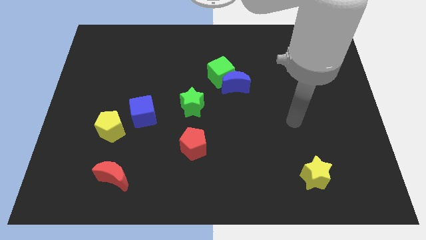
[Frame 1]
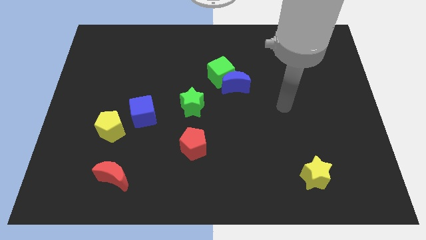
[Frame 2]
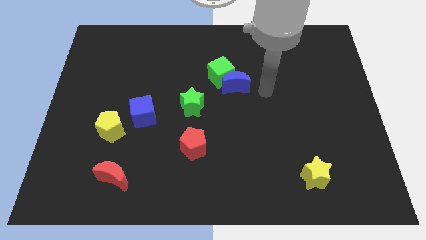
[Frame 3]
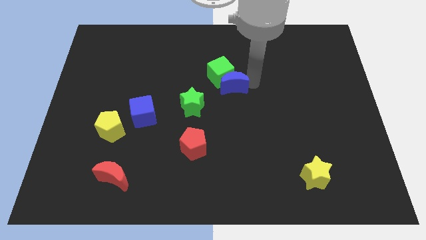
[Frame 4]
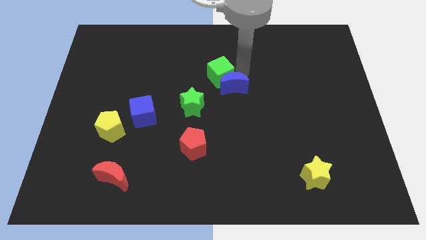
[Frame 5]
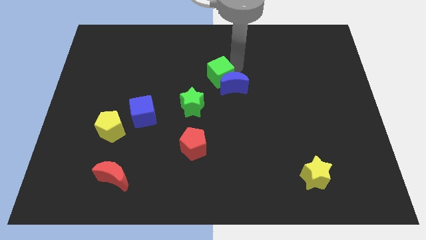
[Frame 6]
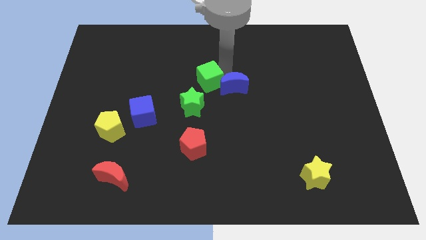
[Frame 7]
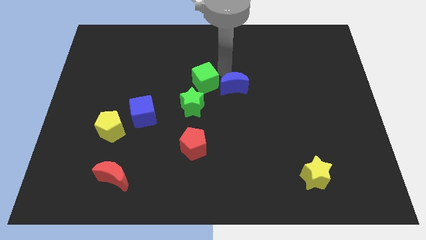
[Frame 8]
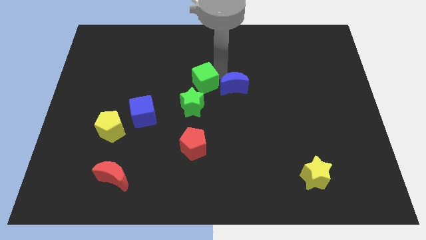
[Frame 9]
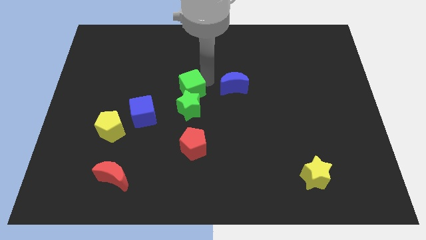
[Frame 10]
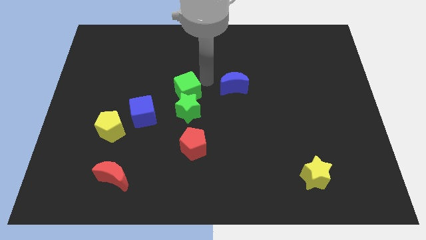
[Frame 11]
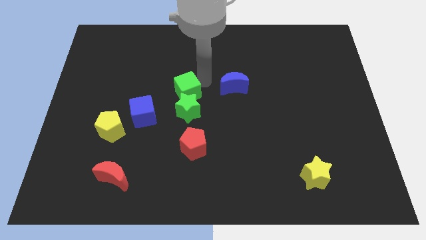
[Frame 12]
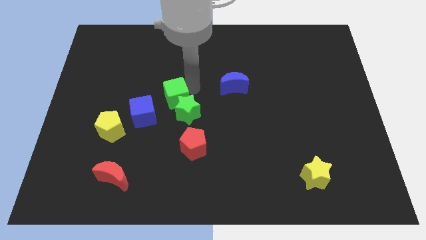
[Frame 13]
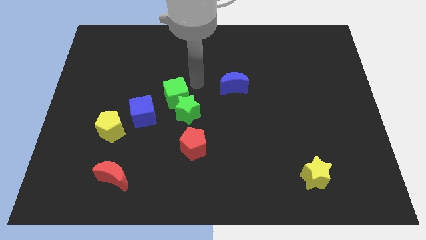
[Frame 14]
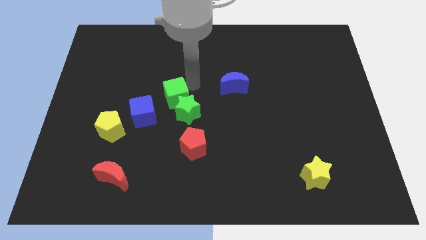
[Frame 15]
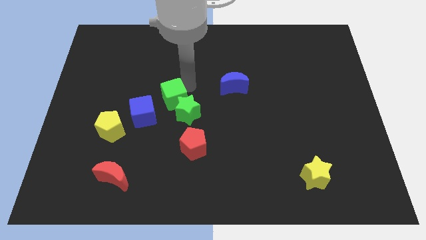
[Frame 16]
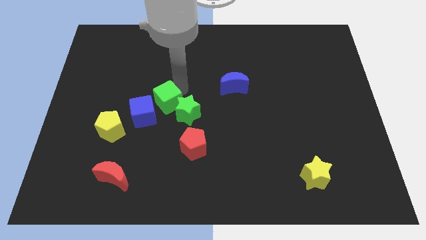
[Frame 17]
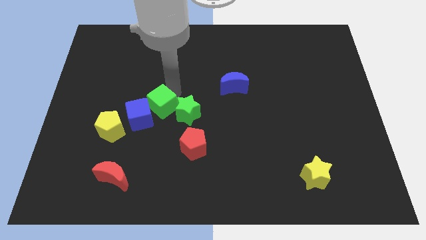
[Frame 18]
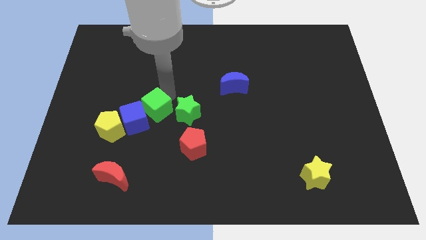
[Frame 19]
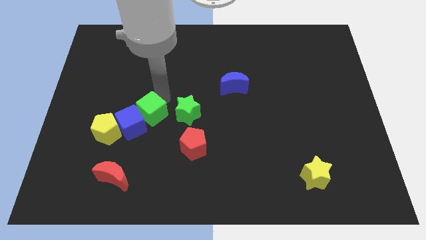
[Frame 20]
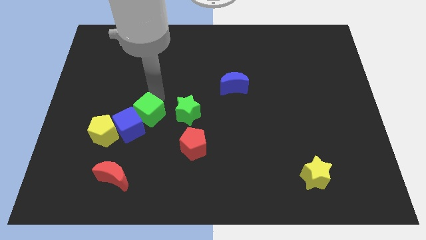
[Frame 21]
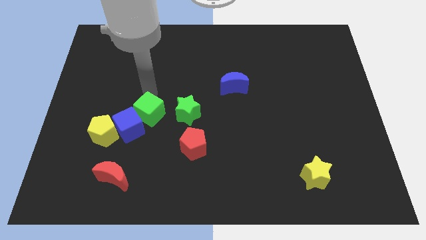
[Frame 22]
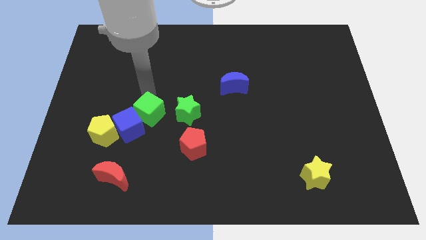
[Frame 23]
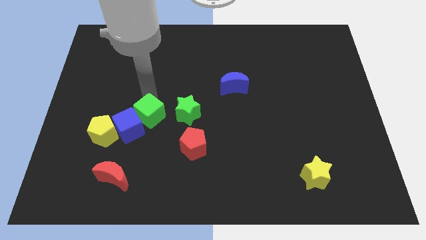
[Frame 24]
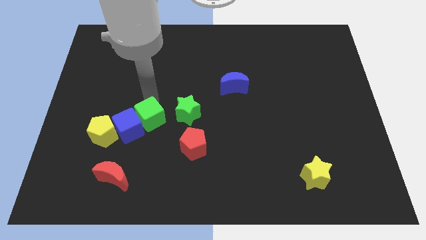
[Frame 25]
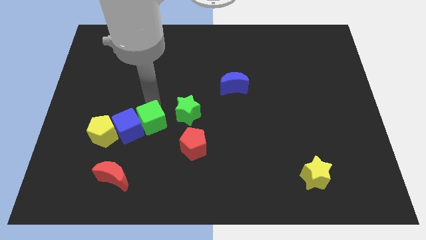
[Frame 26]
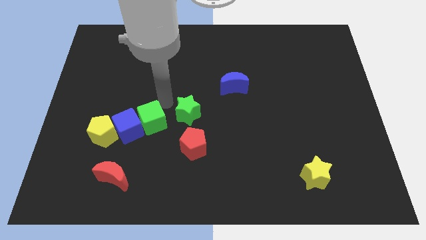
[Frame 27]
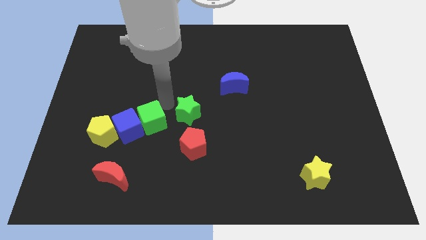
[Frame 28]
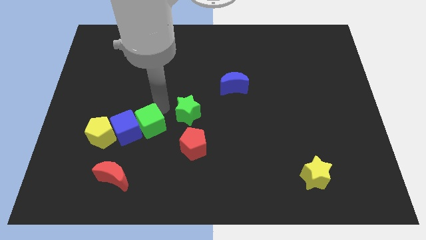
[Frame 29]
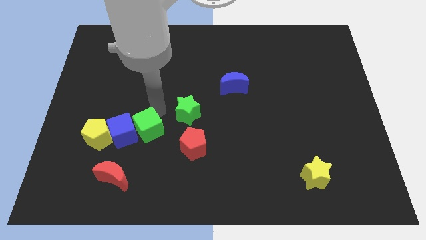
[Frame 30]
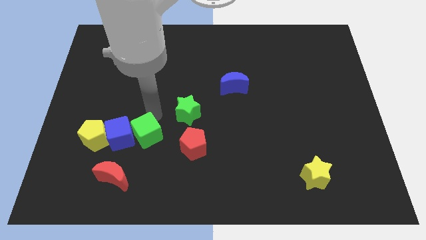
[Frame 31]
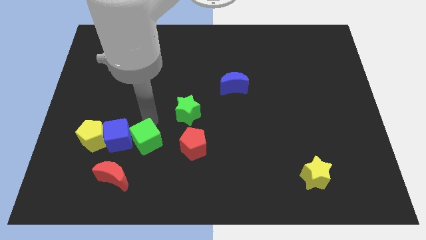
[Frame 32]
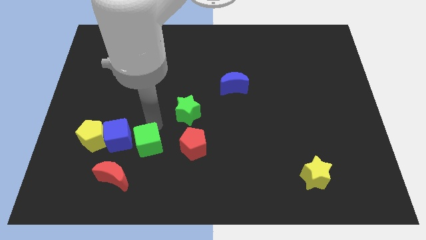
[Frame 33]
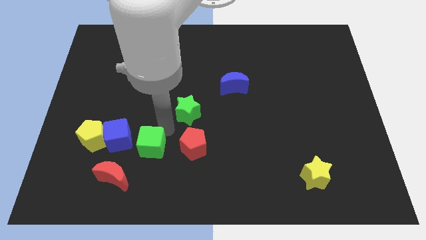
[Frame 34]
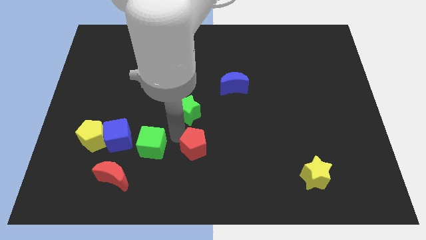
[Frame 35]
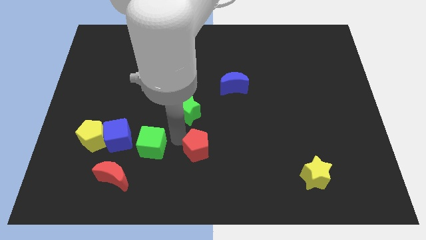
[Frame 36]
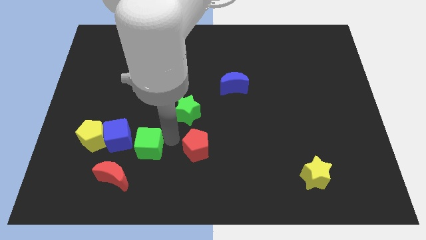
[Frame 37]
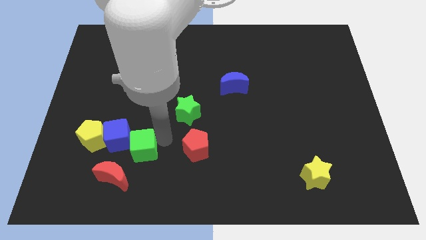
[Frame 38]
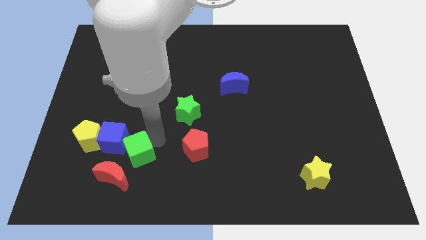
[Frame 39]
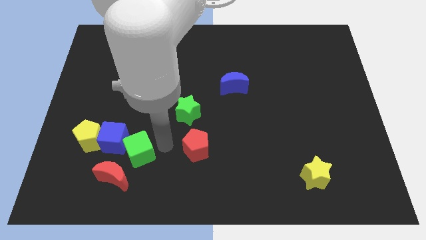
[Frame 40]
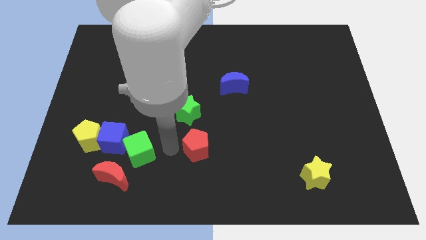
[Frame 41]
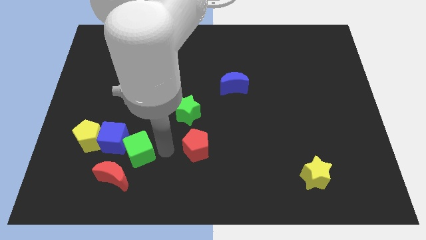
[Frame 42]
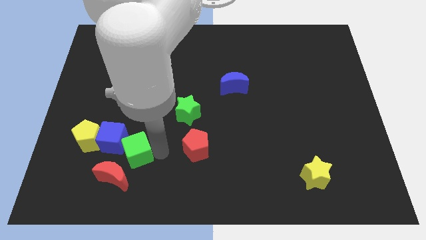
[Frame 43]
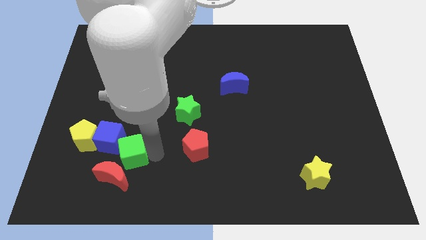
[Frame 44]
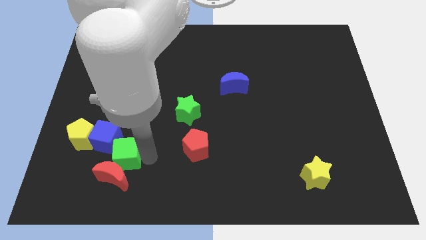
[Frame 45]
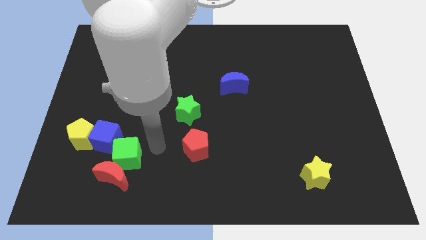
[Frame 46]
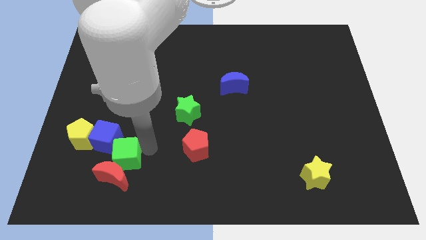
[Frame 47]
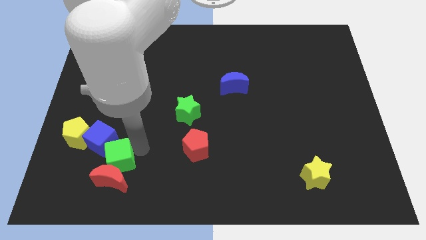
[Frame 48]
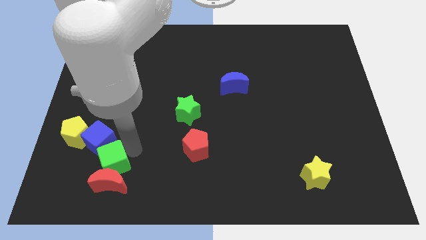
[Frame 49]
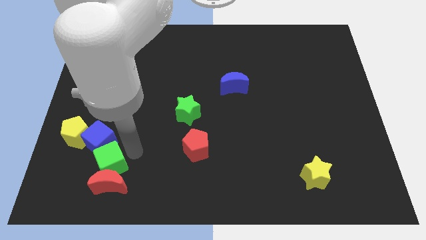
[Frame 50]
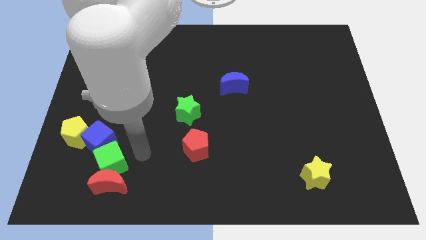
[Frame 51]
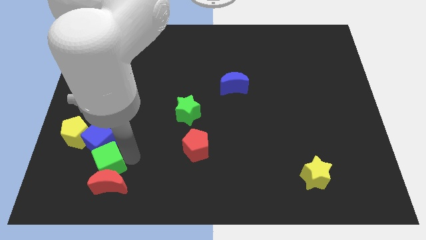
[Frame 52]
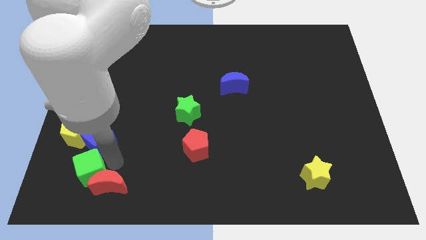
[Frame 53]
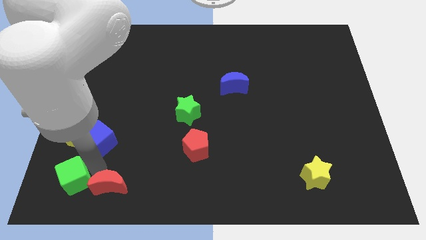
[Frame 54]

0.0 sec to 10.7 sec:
push the green cube to the bottom left corner
